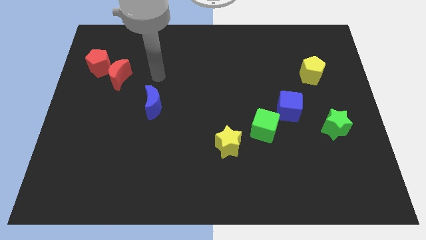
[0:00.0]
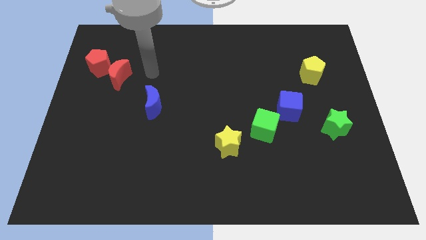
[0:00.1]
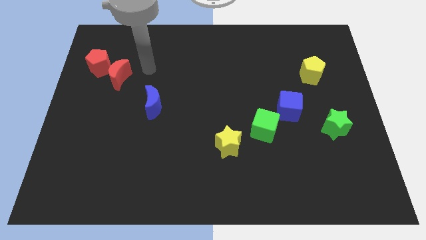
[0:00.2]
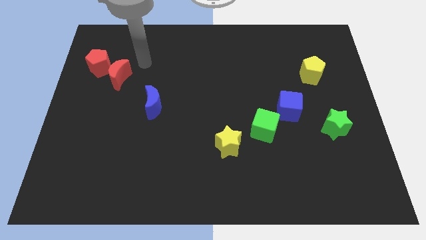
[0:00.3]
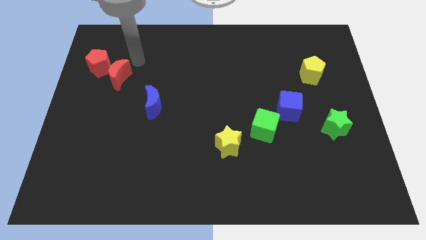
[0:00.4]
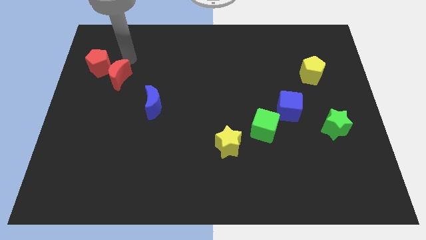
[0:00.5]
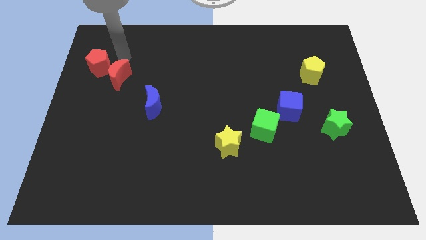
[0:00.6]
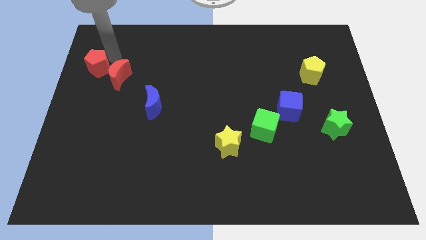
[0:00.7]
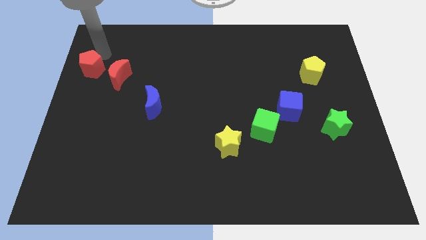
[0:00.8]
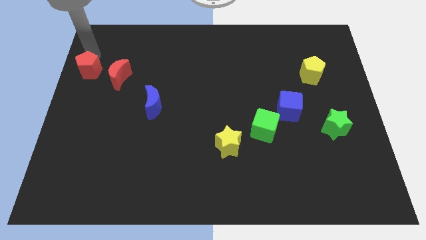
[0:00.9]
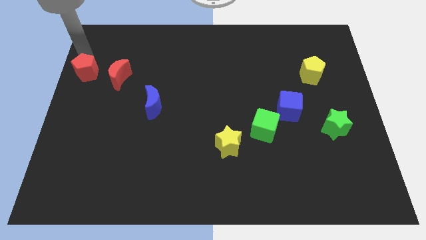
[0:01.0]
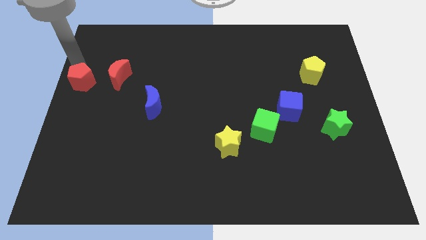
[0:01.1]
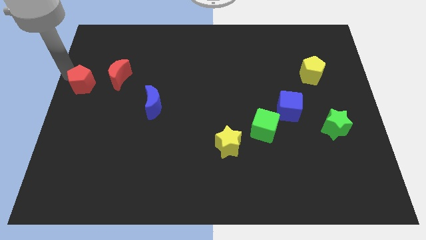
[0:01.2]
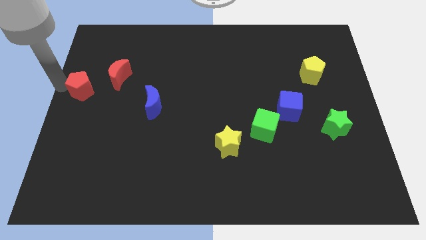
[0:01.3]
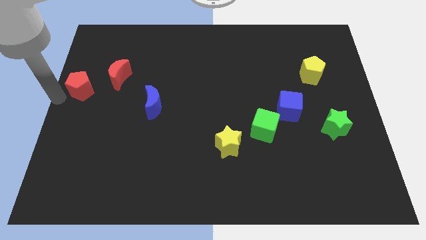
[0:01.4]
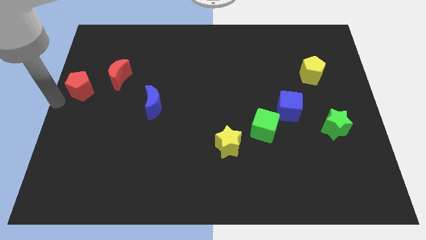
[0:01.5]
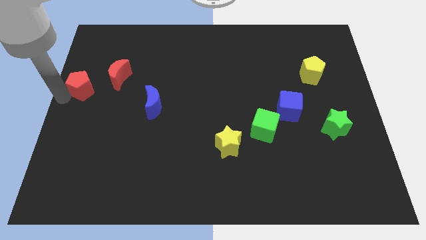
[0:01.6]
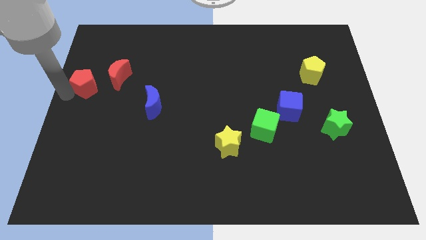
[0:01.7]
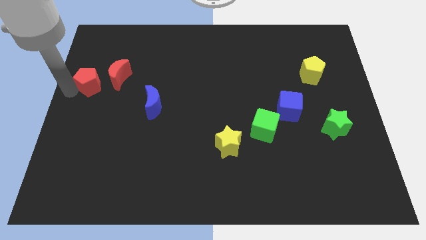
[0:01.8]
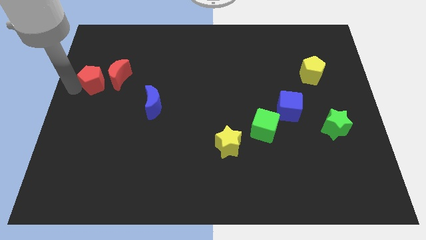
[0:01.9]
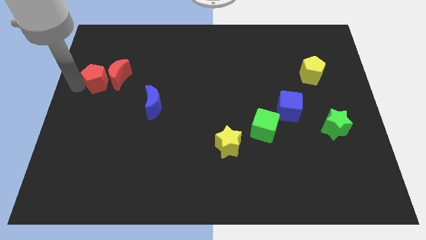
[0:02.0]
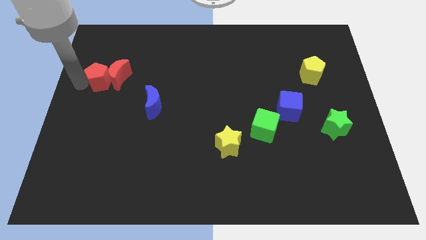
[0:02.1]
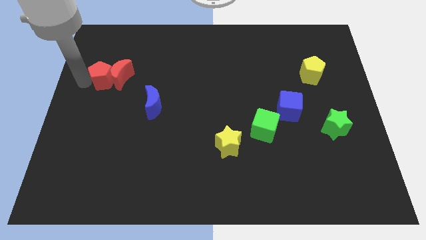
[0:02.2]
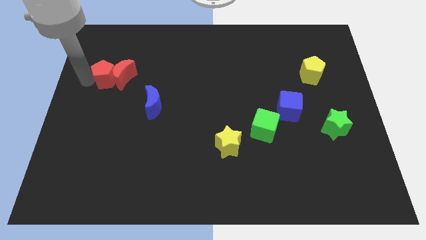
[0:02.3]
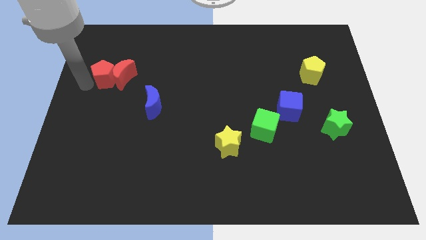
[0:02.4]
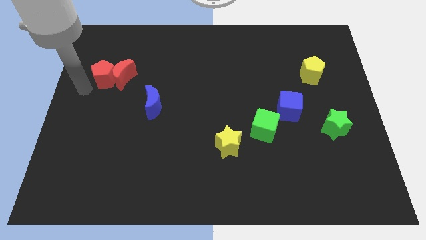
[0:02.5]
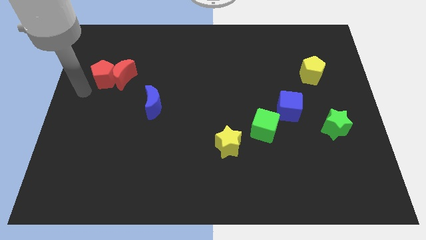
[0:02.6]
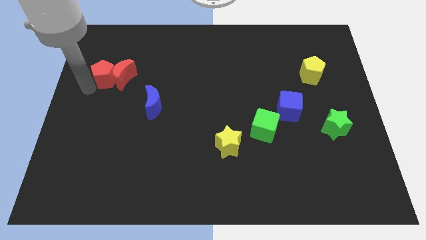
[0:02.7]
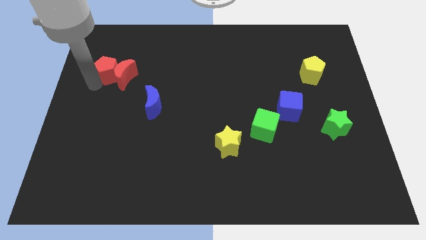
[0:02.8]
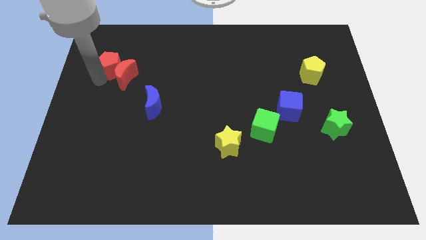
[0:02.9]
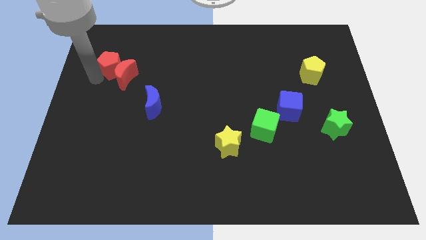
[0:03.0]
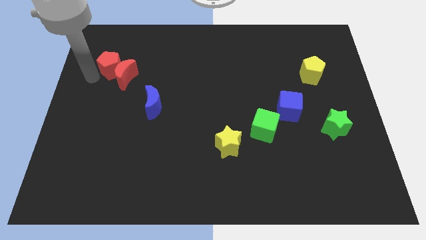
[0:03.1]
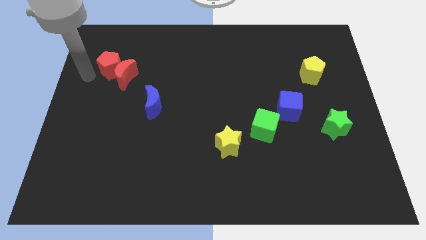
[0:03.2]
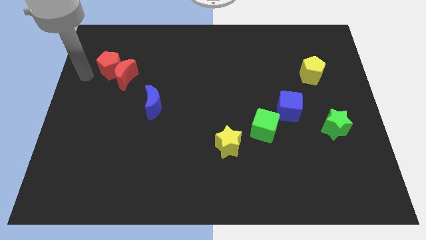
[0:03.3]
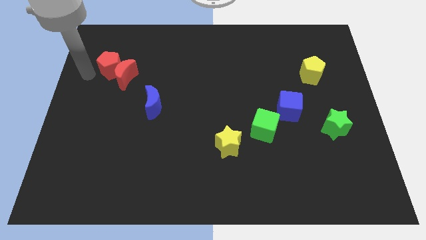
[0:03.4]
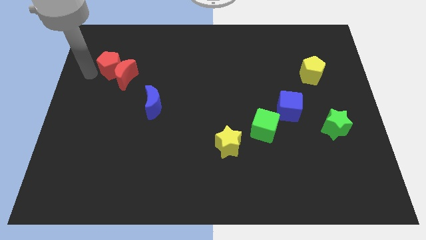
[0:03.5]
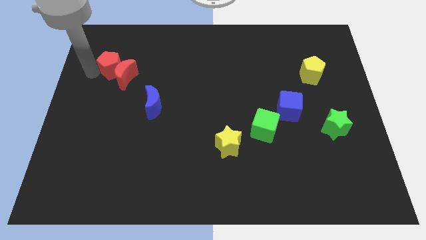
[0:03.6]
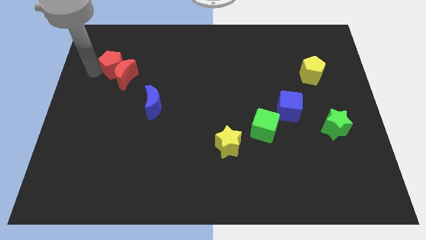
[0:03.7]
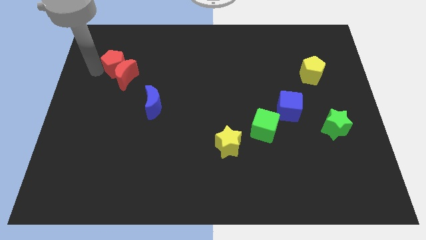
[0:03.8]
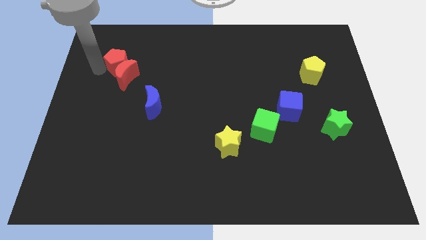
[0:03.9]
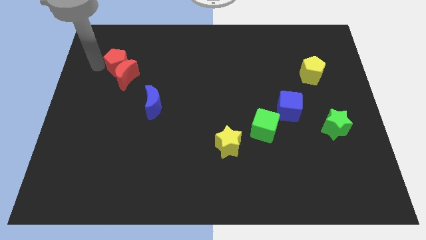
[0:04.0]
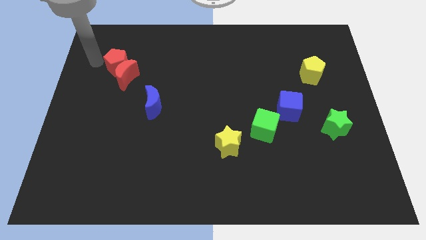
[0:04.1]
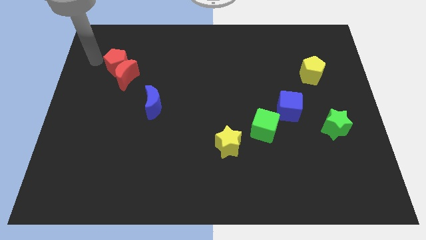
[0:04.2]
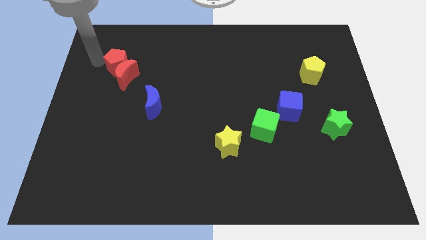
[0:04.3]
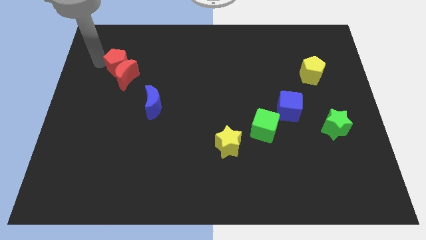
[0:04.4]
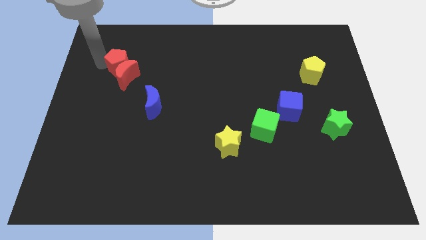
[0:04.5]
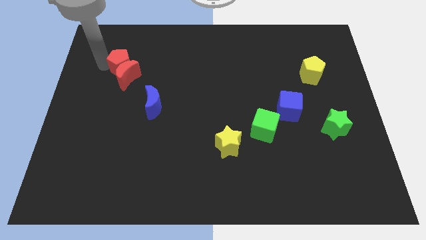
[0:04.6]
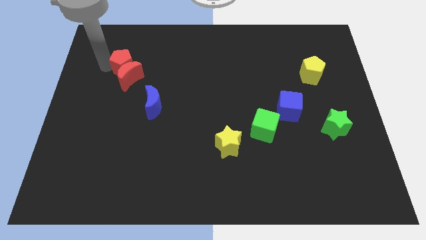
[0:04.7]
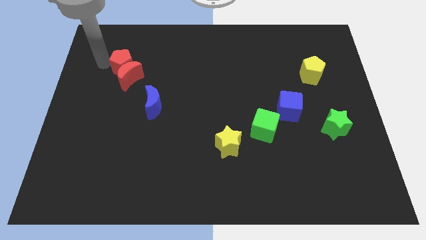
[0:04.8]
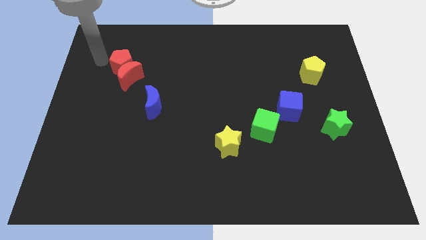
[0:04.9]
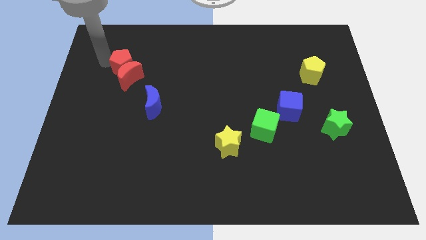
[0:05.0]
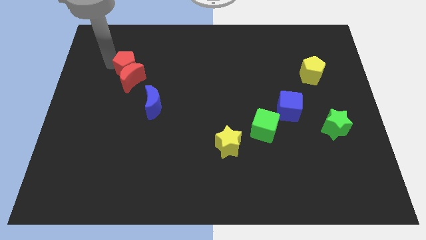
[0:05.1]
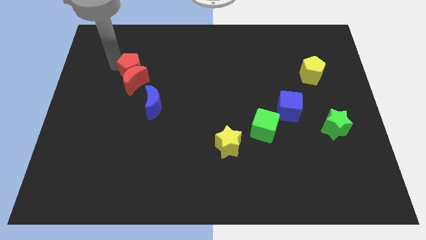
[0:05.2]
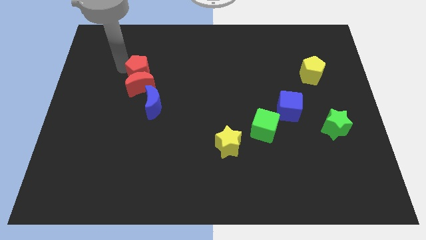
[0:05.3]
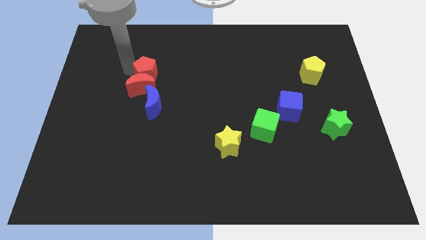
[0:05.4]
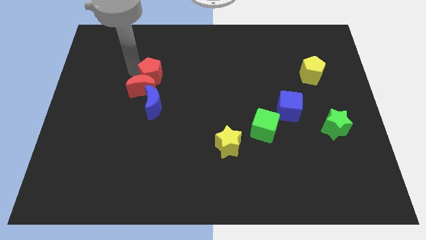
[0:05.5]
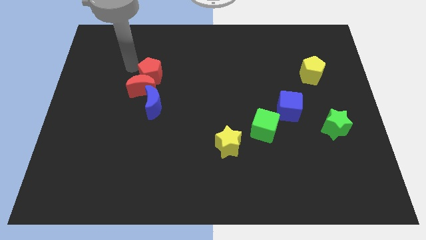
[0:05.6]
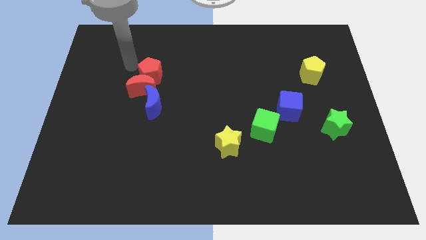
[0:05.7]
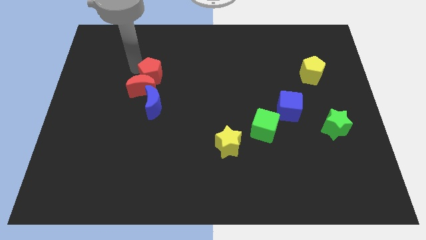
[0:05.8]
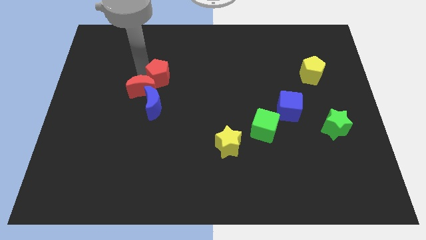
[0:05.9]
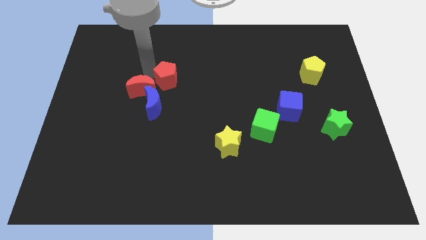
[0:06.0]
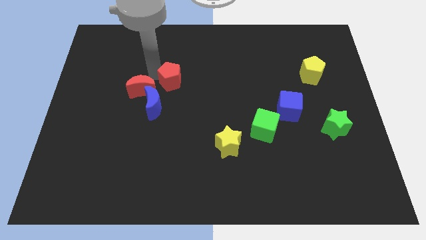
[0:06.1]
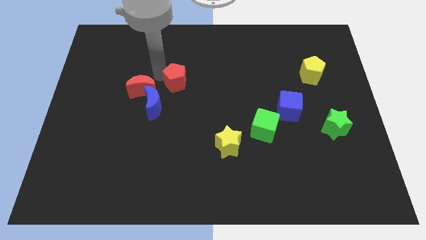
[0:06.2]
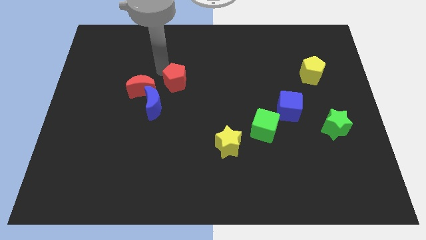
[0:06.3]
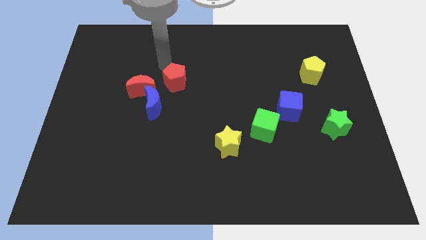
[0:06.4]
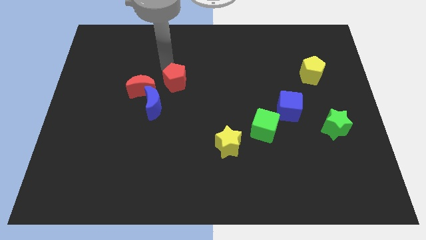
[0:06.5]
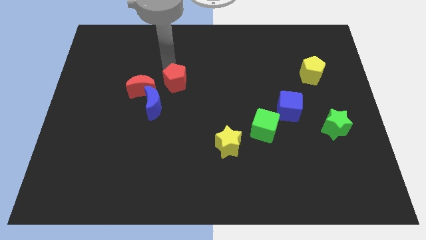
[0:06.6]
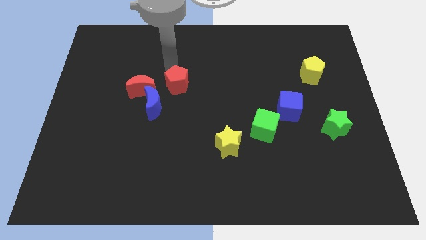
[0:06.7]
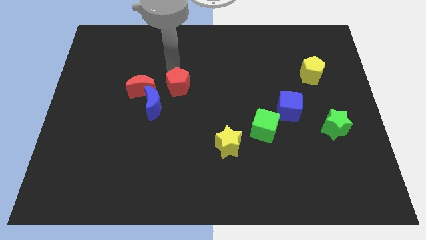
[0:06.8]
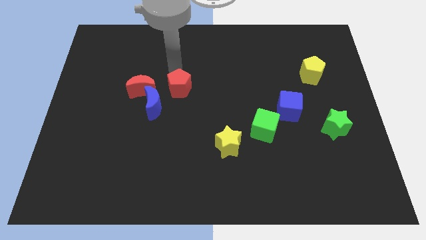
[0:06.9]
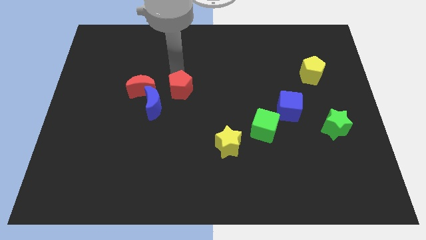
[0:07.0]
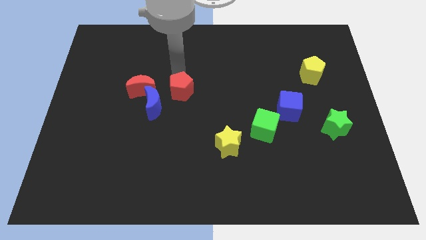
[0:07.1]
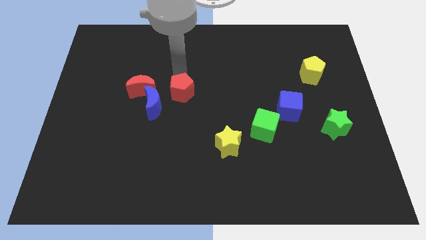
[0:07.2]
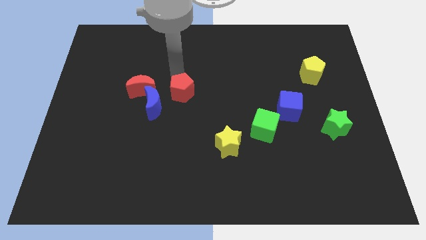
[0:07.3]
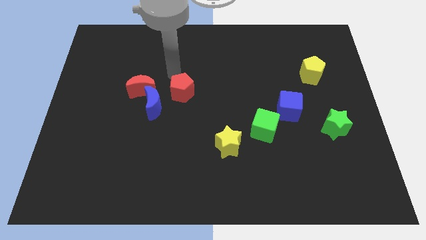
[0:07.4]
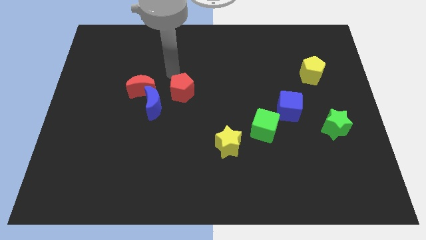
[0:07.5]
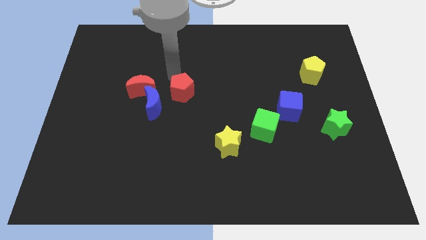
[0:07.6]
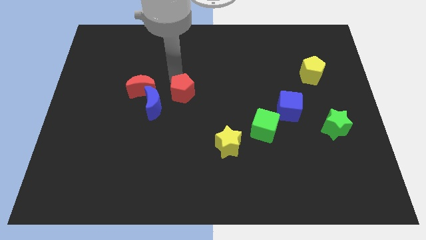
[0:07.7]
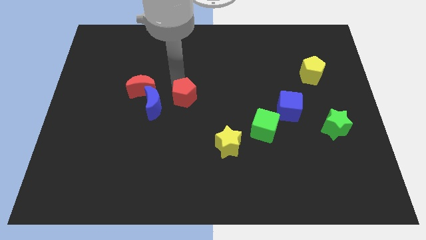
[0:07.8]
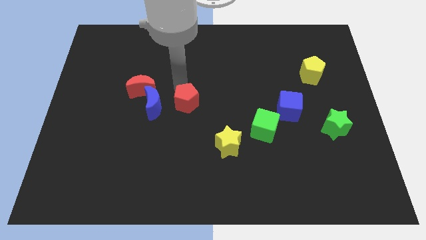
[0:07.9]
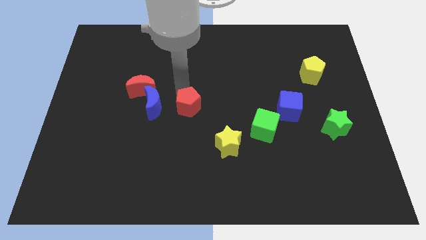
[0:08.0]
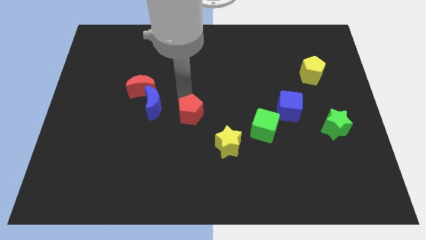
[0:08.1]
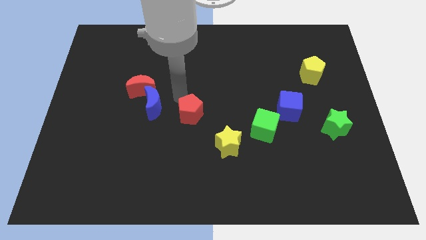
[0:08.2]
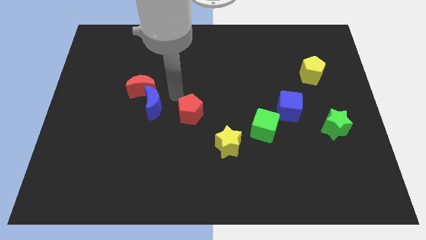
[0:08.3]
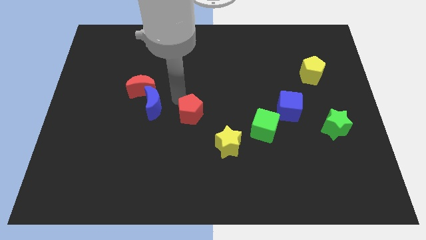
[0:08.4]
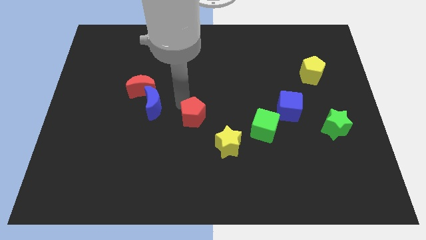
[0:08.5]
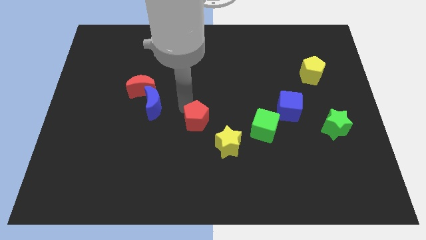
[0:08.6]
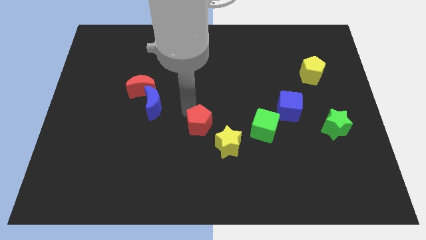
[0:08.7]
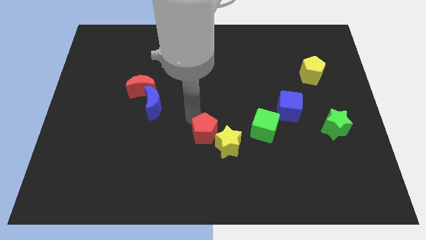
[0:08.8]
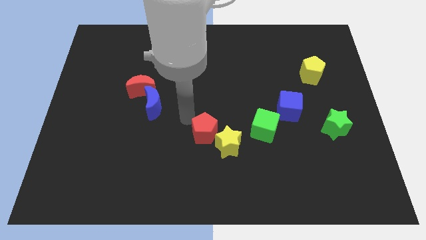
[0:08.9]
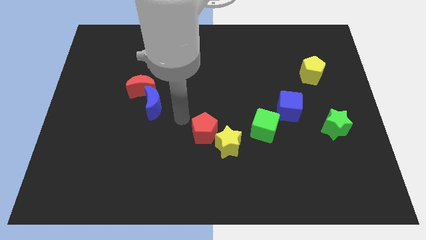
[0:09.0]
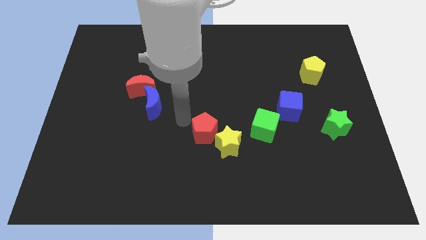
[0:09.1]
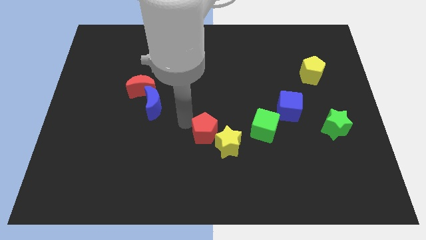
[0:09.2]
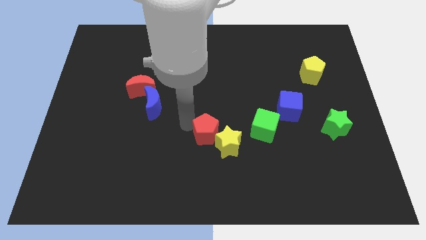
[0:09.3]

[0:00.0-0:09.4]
move the red pentagon to the yellow star
